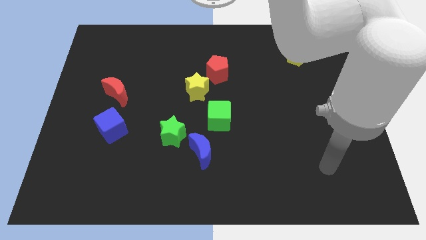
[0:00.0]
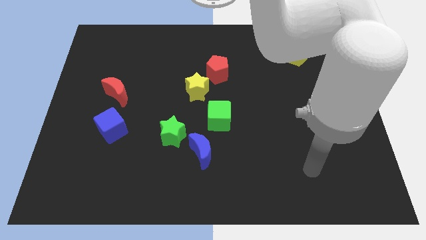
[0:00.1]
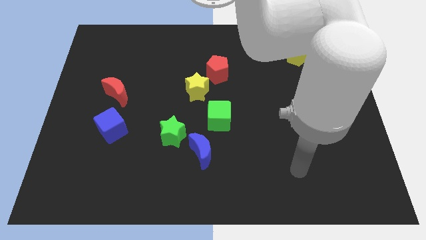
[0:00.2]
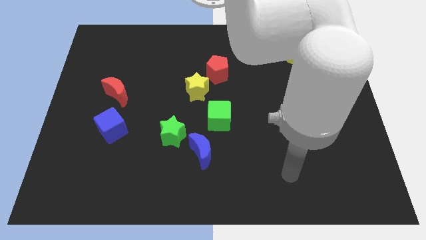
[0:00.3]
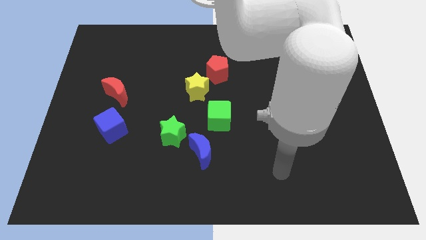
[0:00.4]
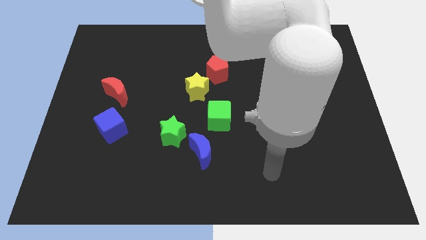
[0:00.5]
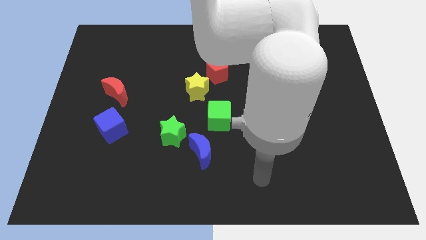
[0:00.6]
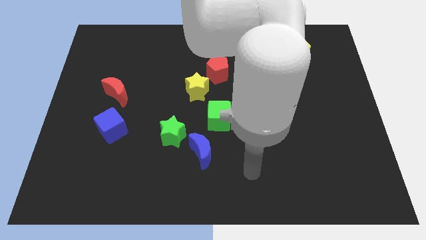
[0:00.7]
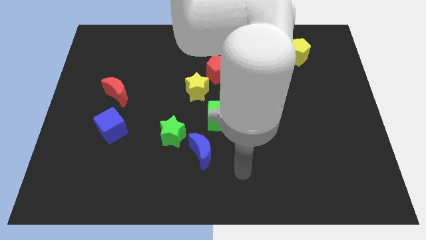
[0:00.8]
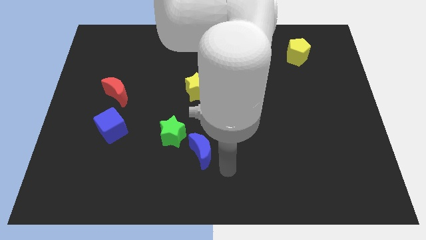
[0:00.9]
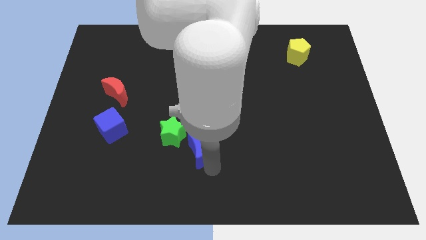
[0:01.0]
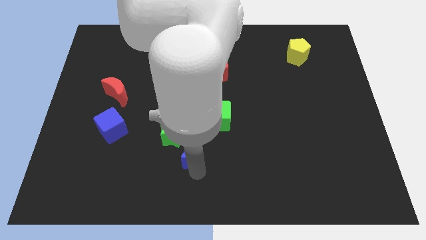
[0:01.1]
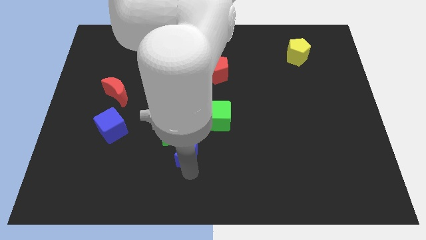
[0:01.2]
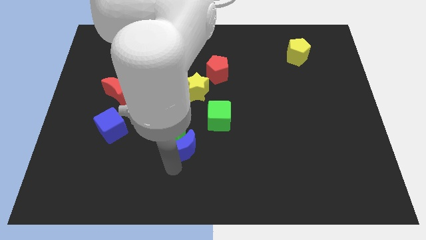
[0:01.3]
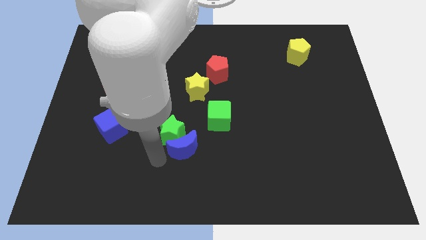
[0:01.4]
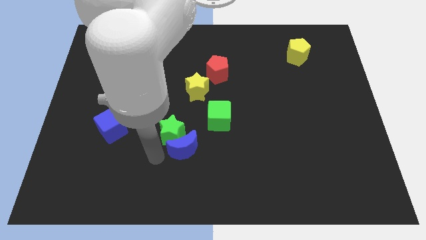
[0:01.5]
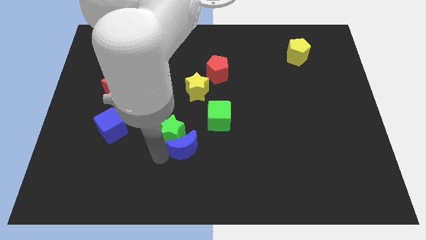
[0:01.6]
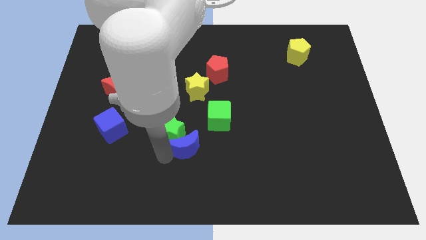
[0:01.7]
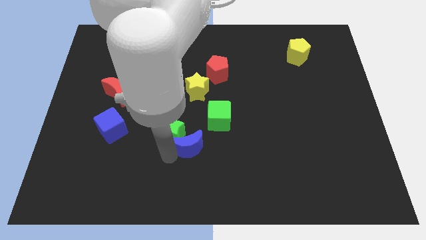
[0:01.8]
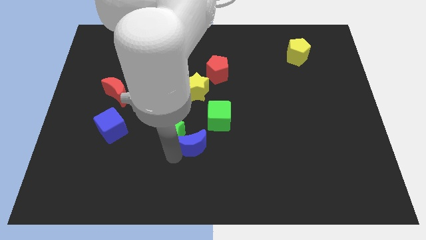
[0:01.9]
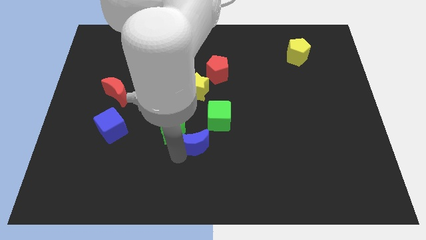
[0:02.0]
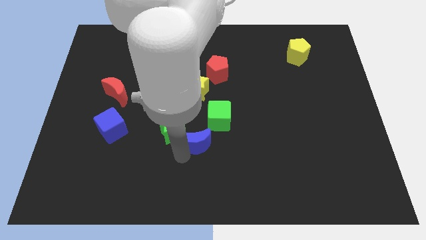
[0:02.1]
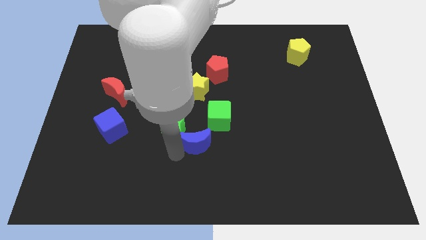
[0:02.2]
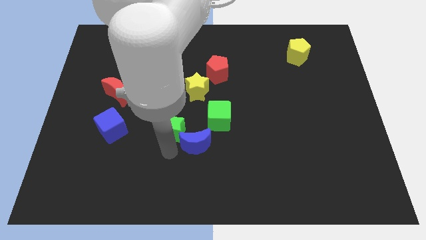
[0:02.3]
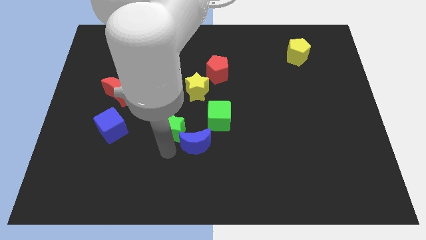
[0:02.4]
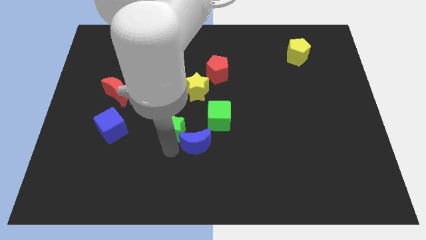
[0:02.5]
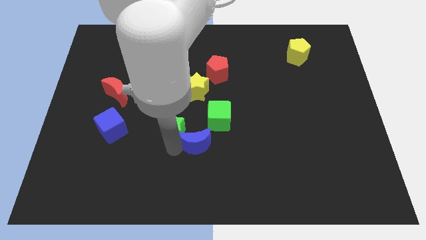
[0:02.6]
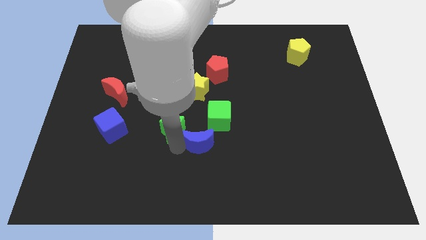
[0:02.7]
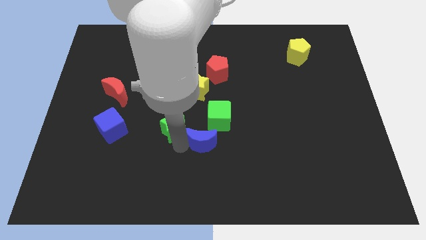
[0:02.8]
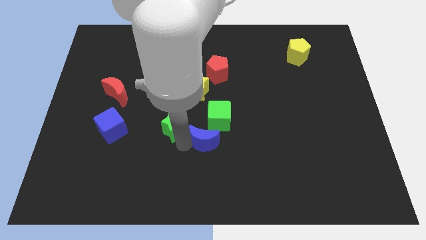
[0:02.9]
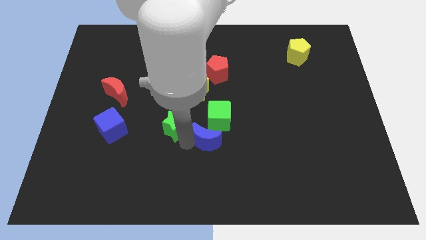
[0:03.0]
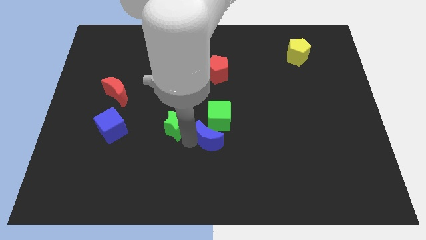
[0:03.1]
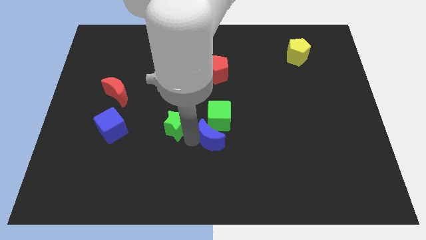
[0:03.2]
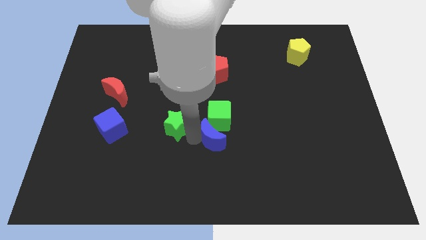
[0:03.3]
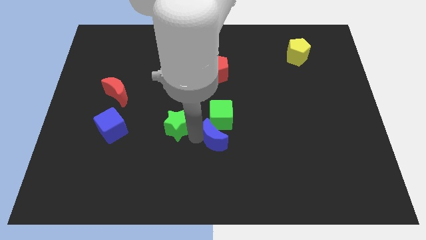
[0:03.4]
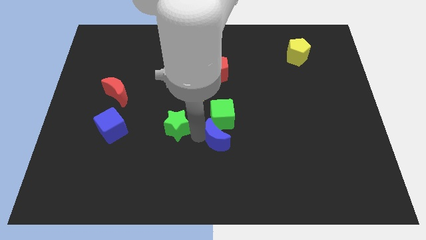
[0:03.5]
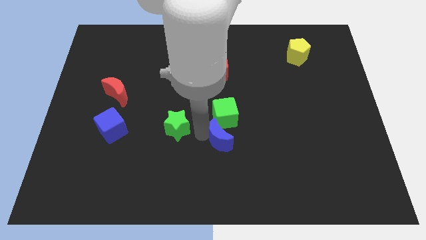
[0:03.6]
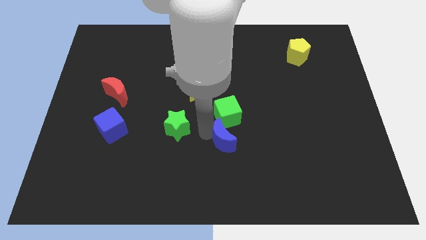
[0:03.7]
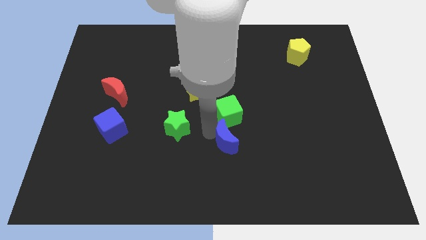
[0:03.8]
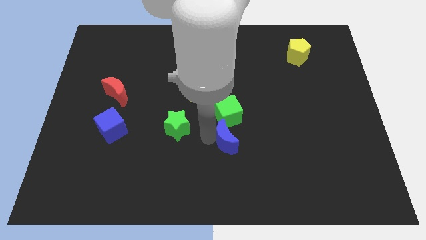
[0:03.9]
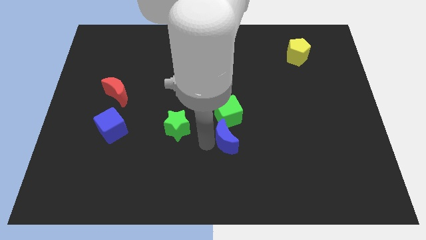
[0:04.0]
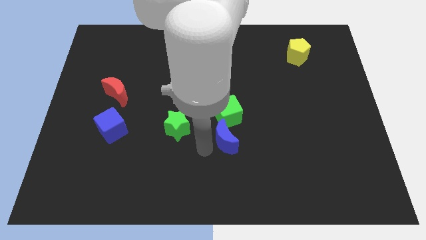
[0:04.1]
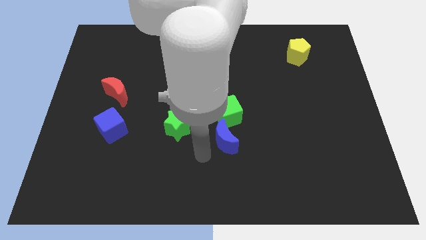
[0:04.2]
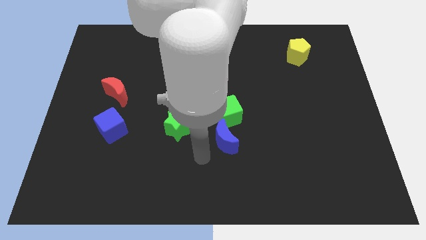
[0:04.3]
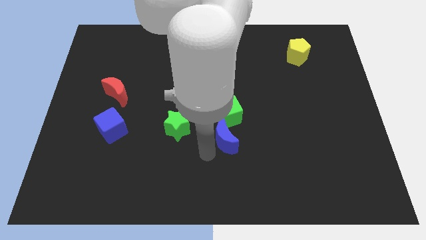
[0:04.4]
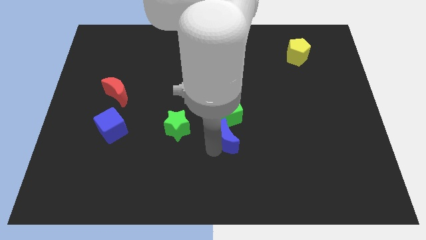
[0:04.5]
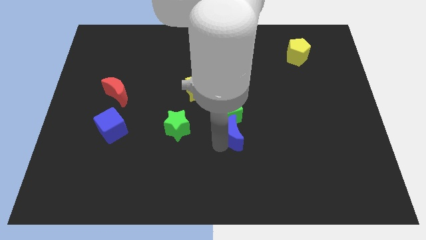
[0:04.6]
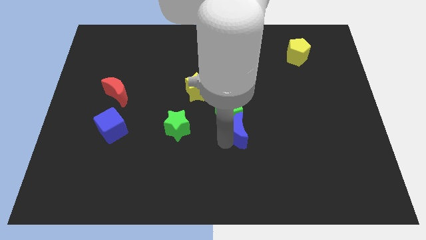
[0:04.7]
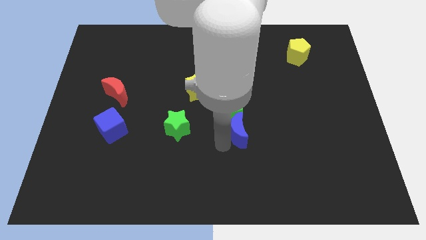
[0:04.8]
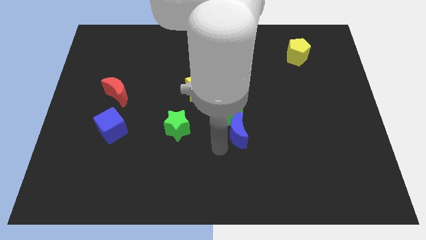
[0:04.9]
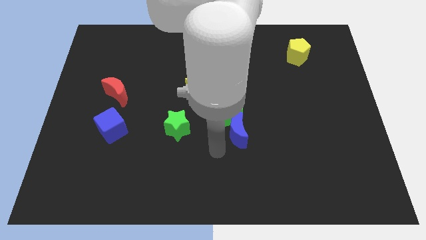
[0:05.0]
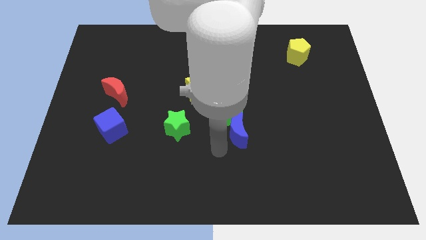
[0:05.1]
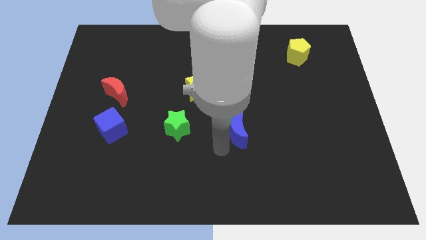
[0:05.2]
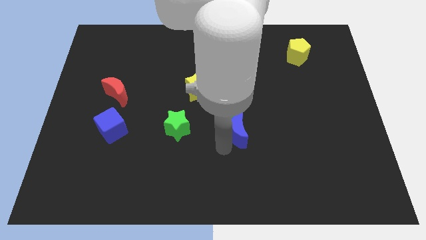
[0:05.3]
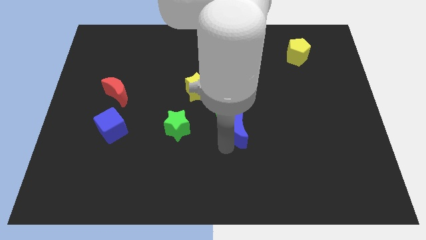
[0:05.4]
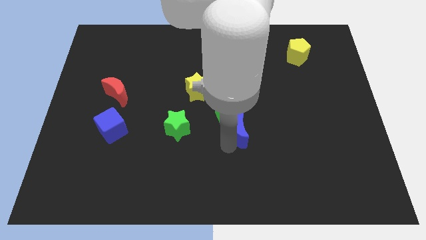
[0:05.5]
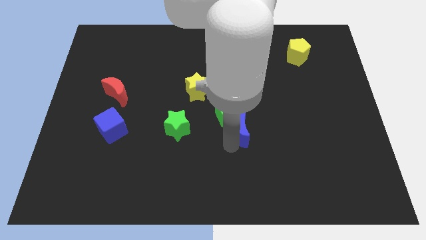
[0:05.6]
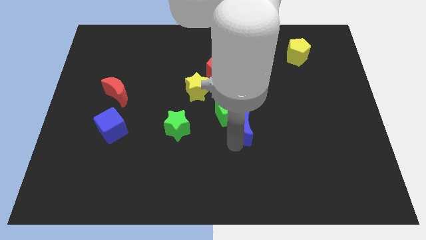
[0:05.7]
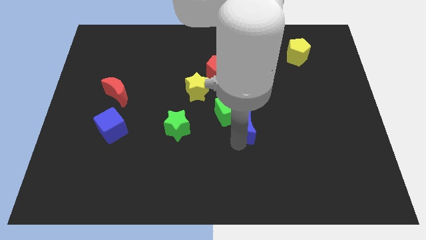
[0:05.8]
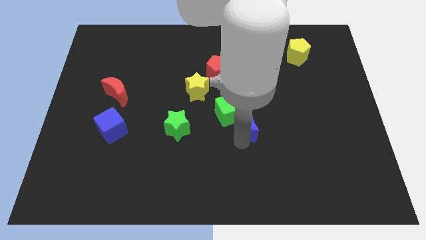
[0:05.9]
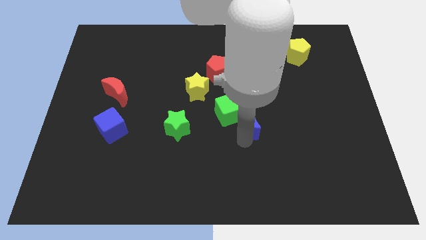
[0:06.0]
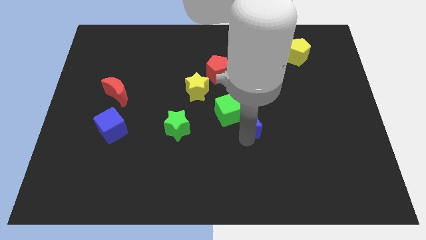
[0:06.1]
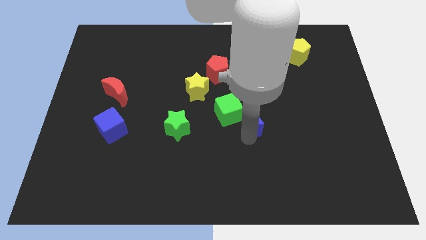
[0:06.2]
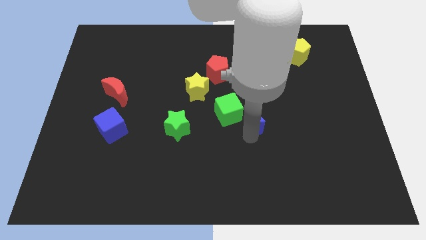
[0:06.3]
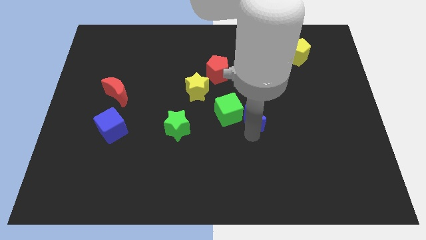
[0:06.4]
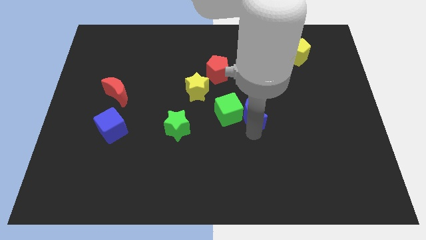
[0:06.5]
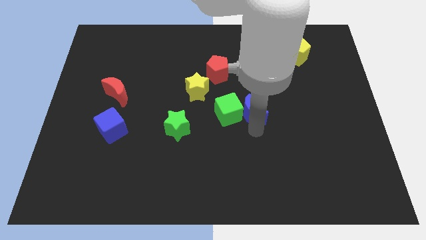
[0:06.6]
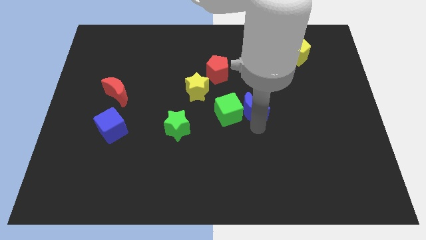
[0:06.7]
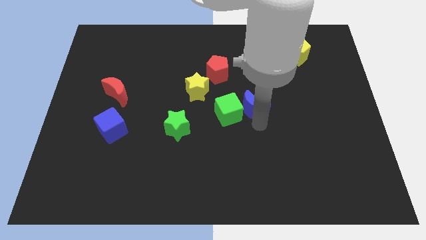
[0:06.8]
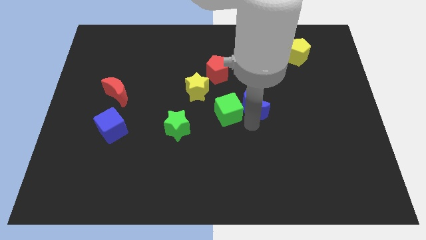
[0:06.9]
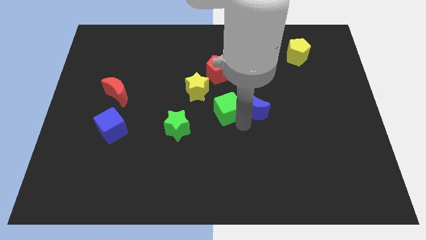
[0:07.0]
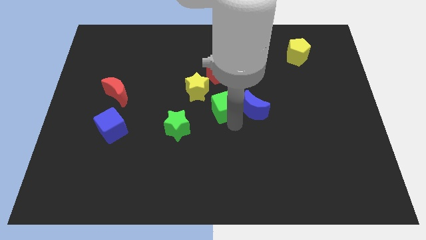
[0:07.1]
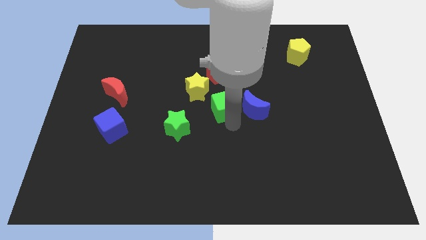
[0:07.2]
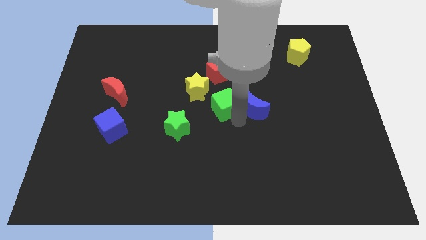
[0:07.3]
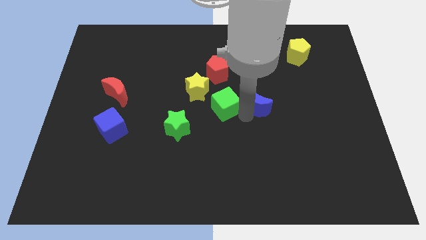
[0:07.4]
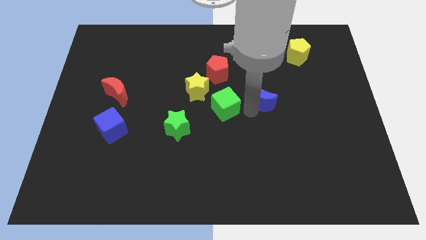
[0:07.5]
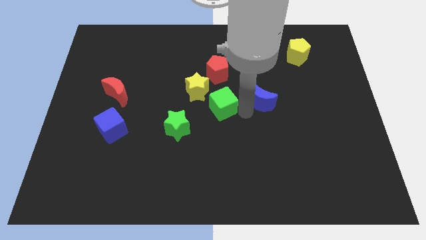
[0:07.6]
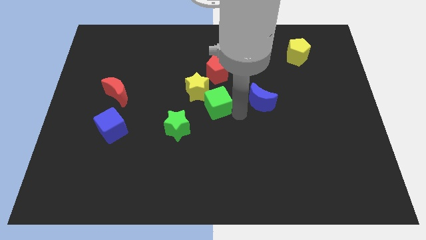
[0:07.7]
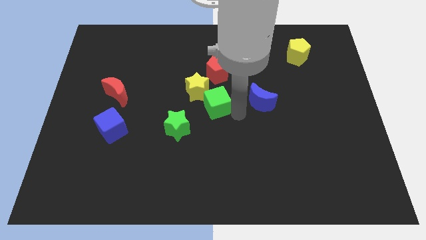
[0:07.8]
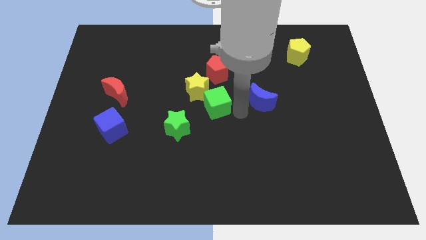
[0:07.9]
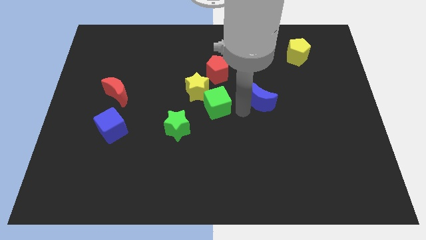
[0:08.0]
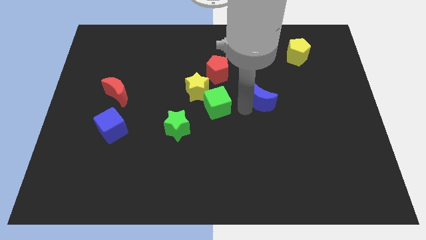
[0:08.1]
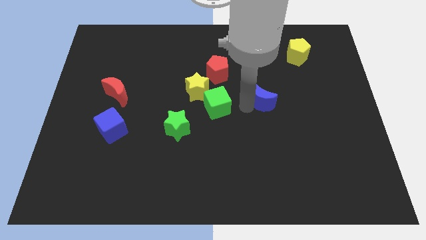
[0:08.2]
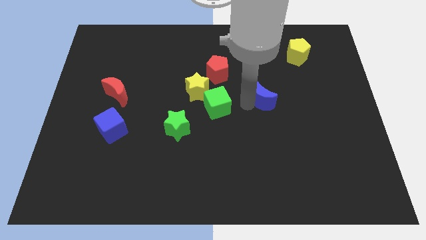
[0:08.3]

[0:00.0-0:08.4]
slide the blue moon up and right diagonally
